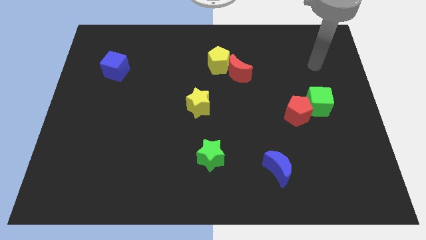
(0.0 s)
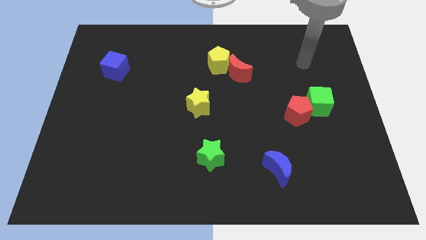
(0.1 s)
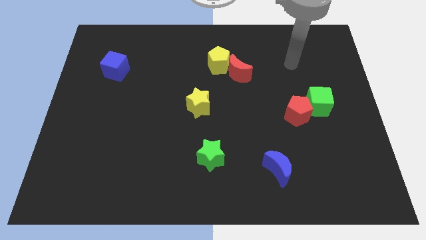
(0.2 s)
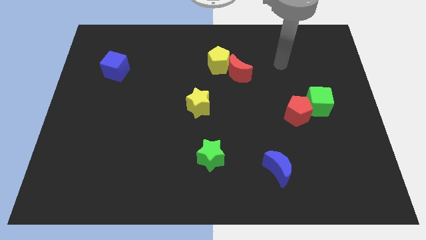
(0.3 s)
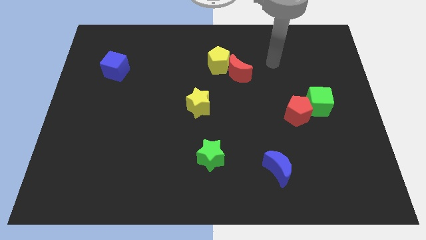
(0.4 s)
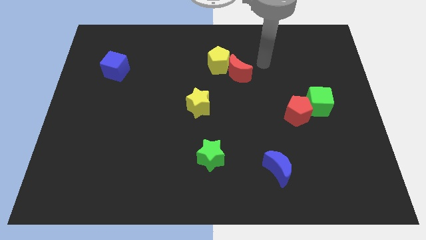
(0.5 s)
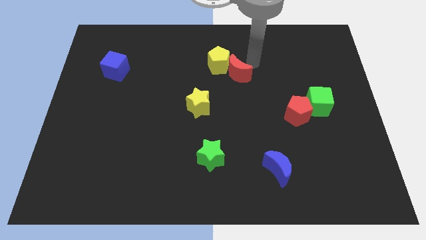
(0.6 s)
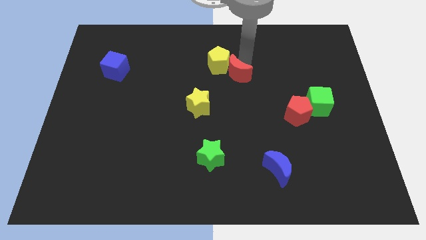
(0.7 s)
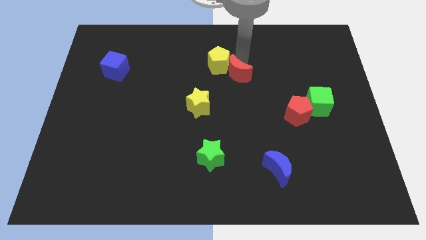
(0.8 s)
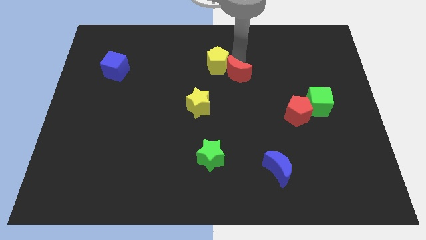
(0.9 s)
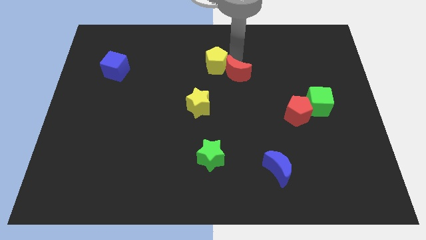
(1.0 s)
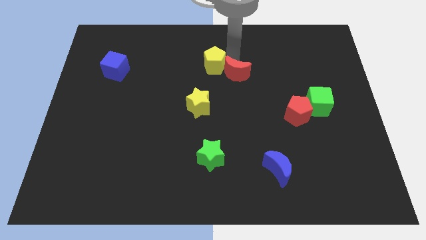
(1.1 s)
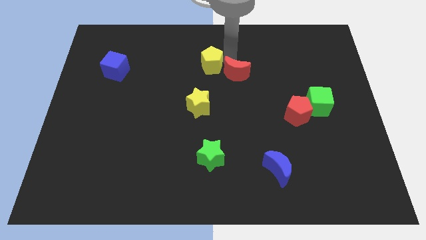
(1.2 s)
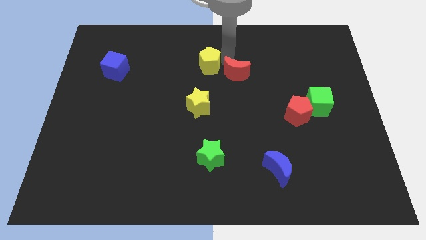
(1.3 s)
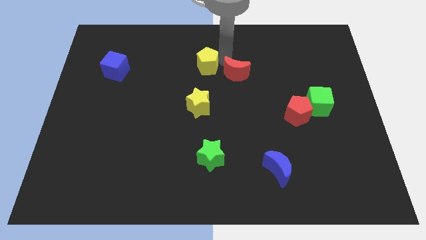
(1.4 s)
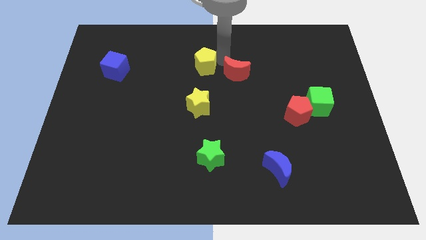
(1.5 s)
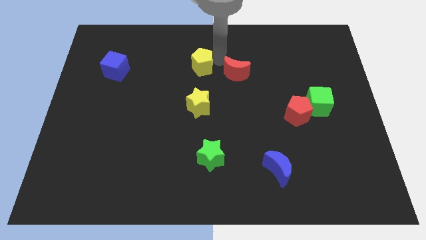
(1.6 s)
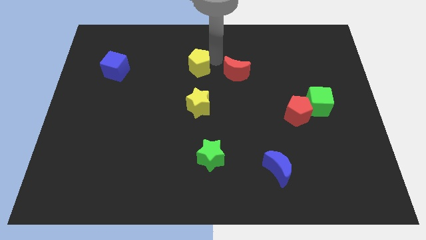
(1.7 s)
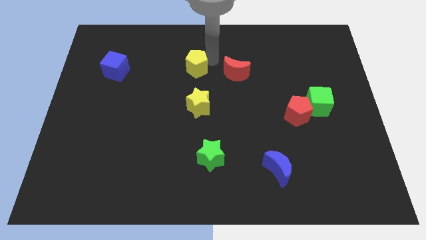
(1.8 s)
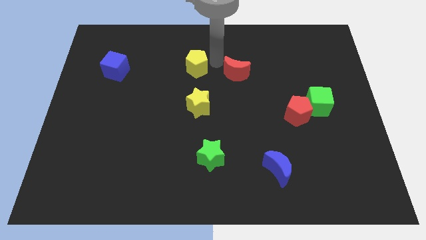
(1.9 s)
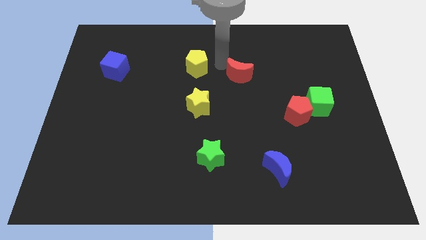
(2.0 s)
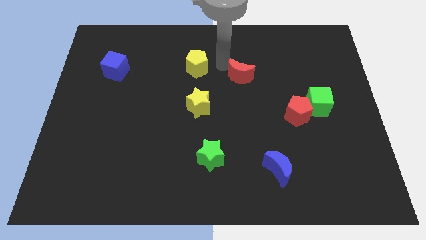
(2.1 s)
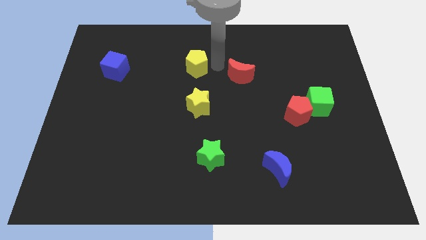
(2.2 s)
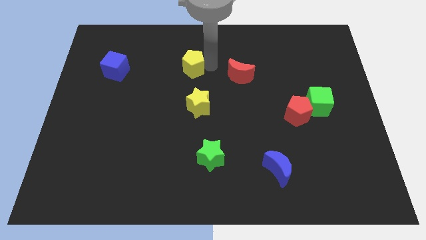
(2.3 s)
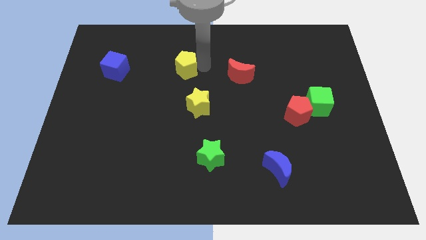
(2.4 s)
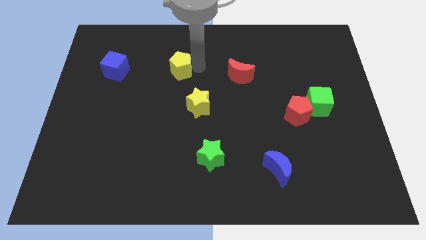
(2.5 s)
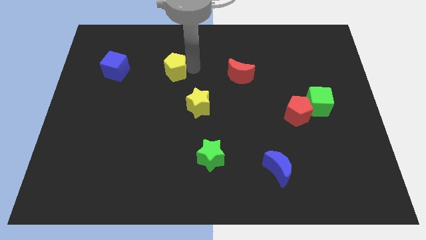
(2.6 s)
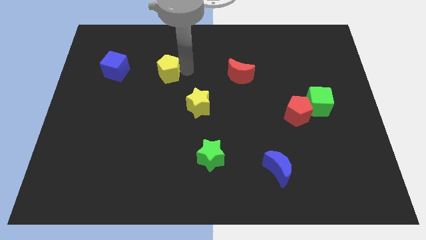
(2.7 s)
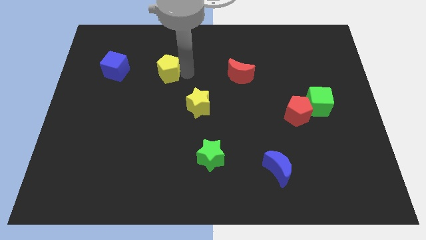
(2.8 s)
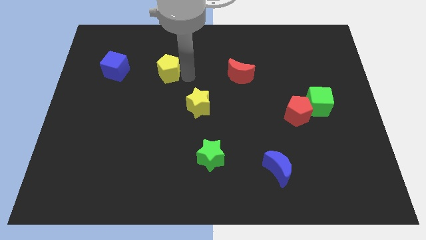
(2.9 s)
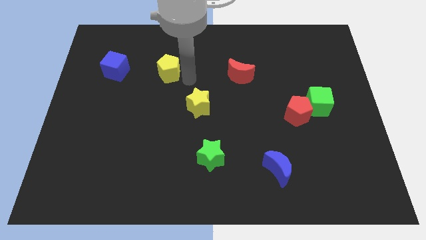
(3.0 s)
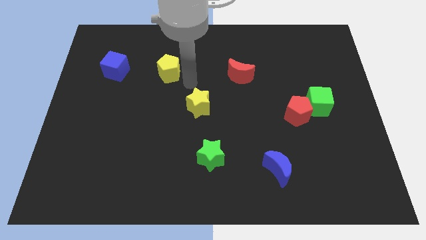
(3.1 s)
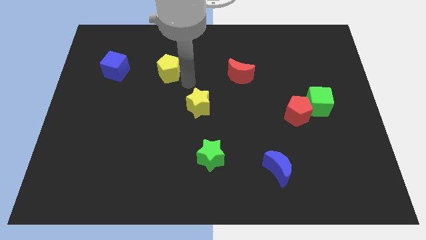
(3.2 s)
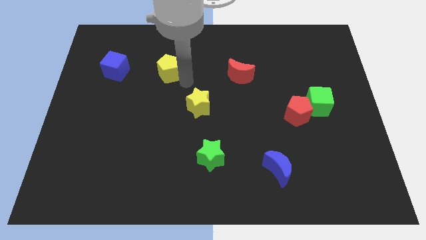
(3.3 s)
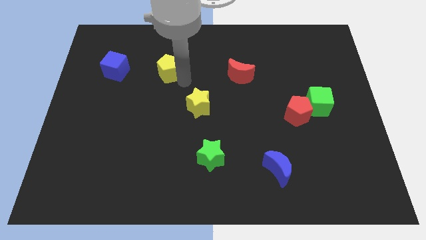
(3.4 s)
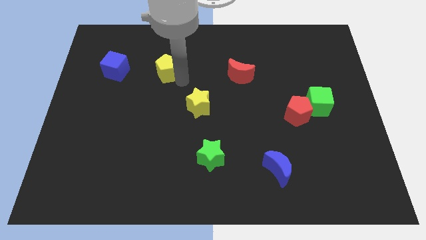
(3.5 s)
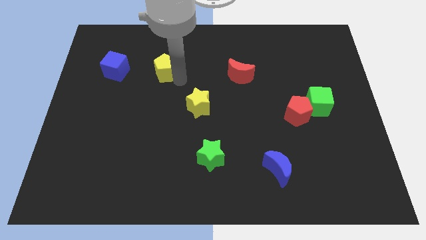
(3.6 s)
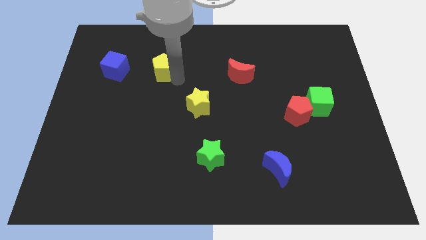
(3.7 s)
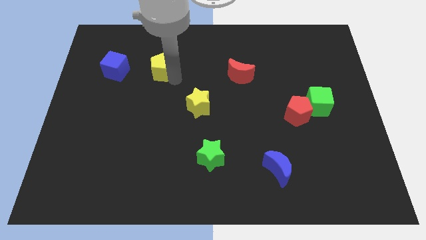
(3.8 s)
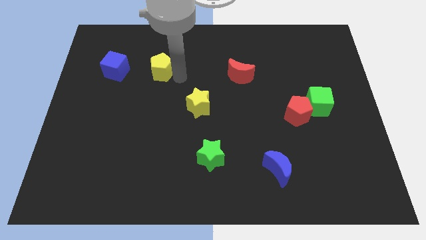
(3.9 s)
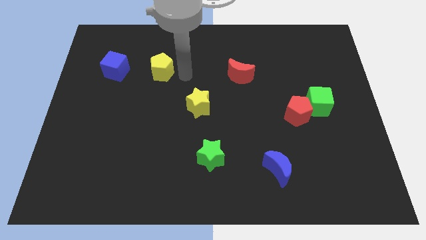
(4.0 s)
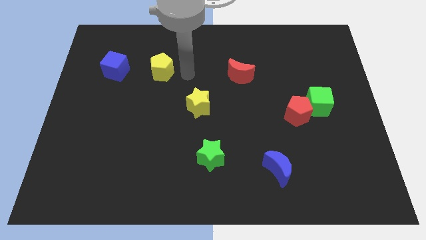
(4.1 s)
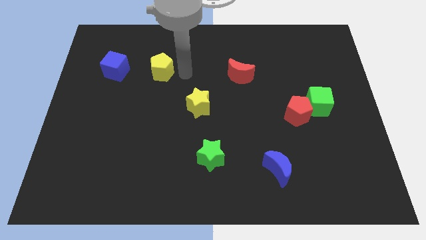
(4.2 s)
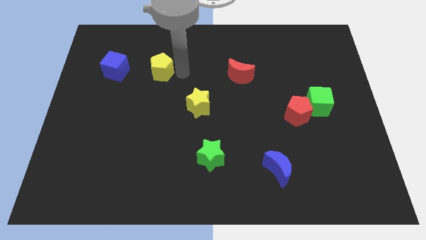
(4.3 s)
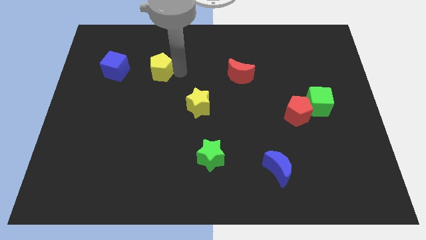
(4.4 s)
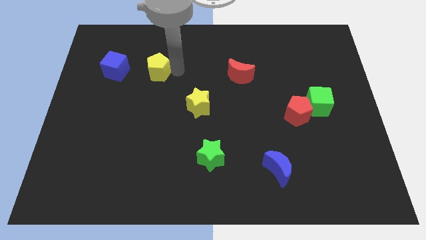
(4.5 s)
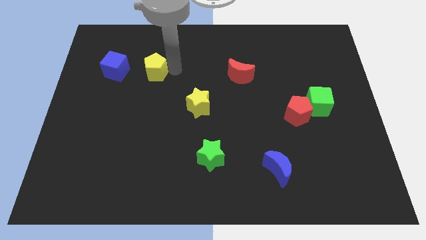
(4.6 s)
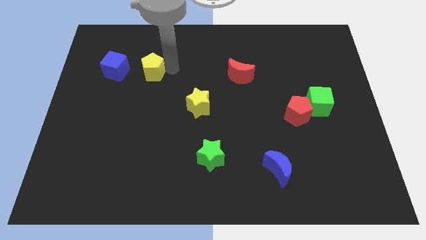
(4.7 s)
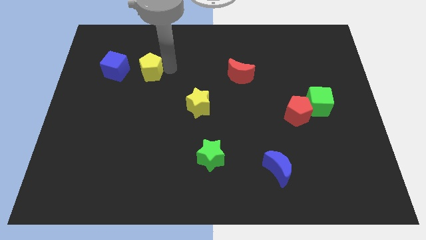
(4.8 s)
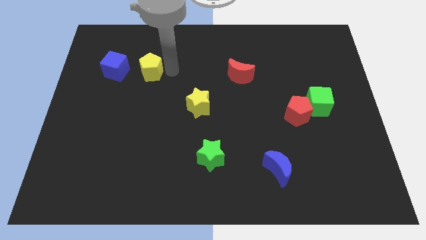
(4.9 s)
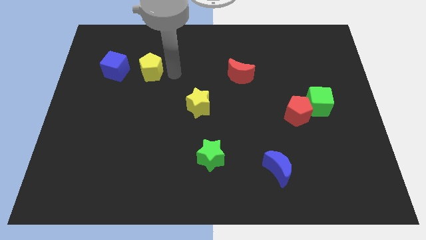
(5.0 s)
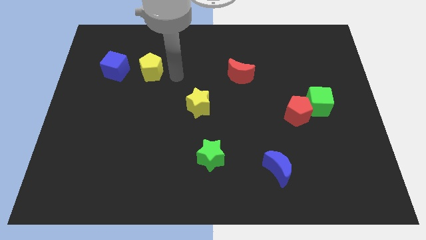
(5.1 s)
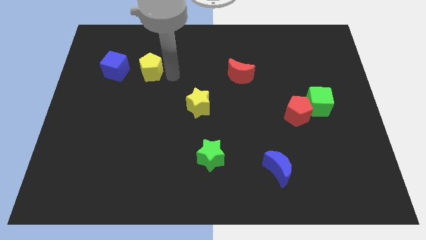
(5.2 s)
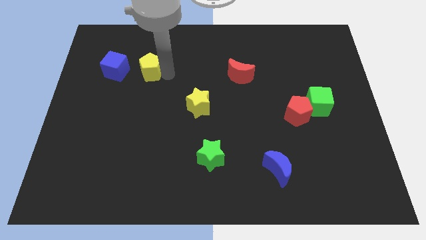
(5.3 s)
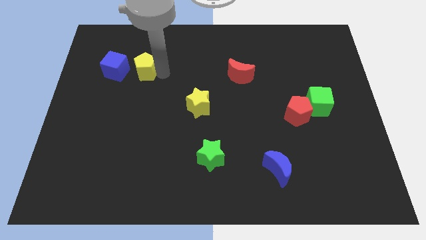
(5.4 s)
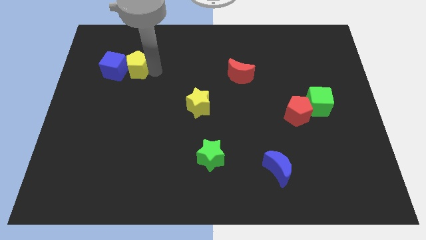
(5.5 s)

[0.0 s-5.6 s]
put the yellow pentagon next to the blue cube

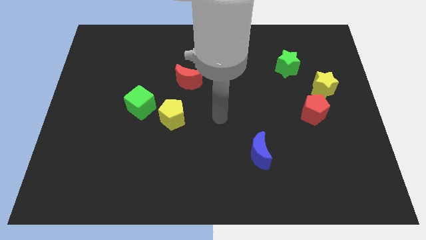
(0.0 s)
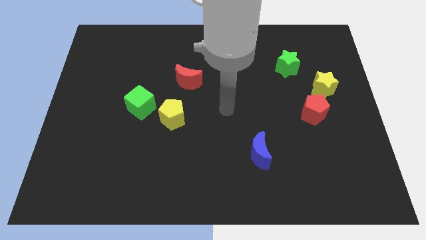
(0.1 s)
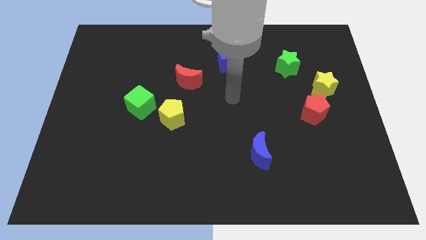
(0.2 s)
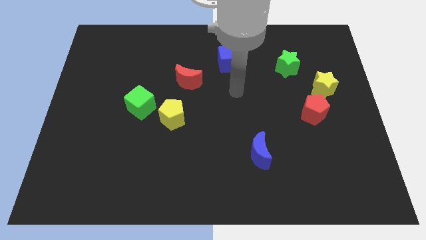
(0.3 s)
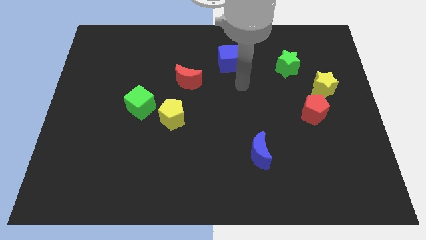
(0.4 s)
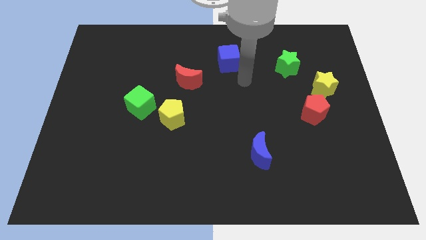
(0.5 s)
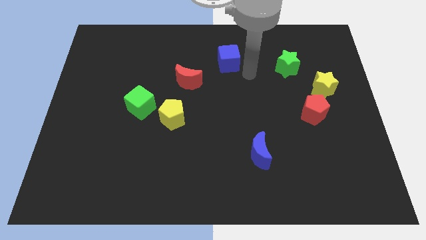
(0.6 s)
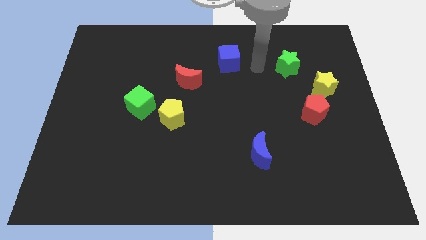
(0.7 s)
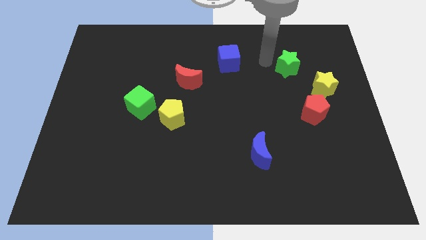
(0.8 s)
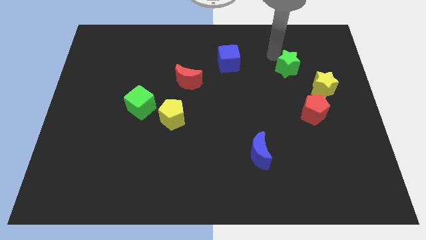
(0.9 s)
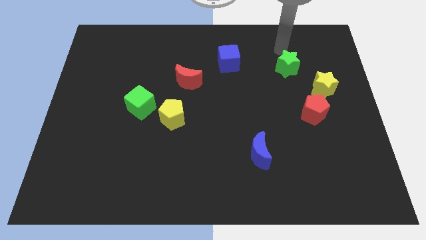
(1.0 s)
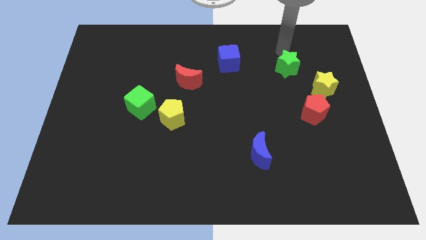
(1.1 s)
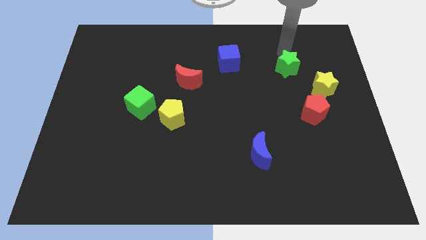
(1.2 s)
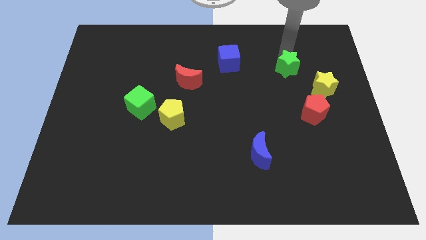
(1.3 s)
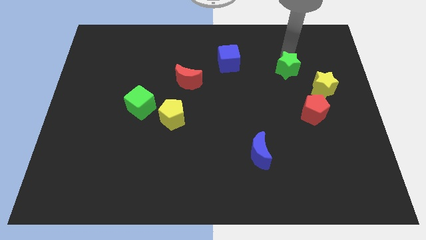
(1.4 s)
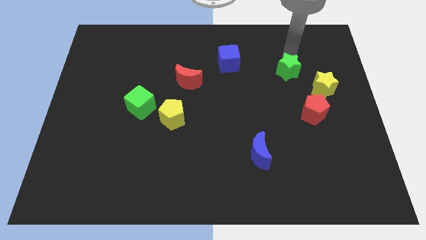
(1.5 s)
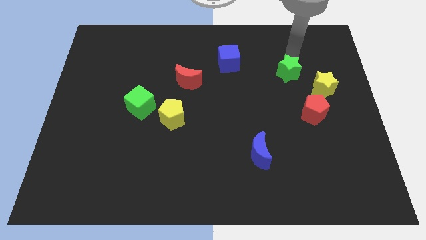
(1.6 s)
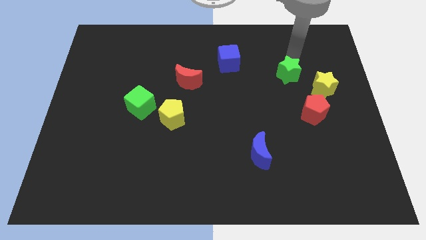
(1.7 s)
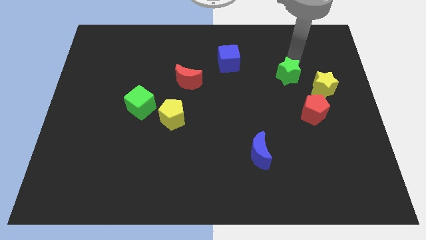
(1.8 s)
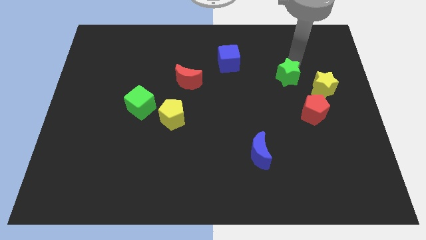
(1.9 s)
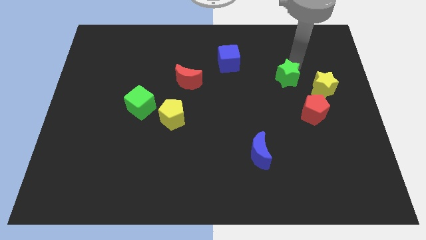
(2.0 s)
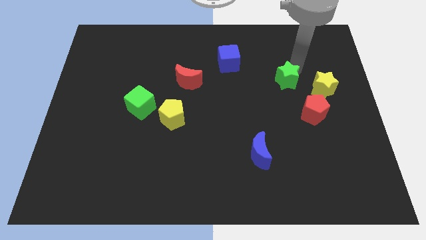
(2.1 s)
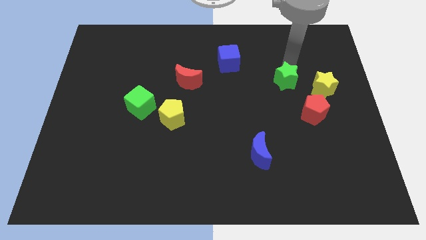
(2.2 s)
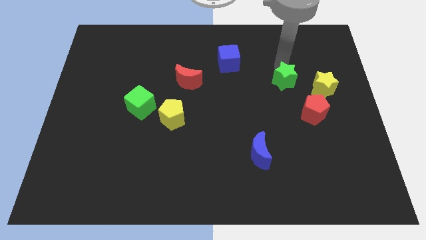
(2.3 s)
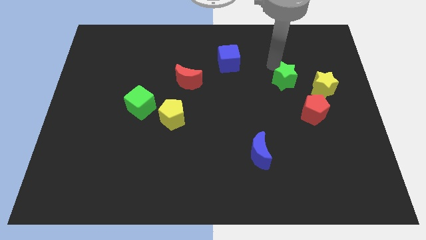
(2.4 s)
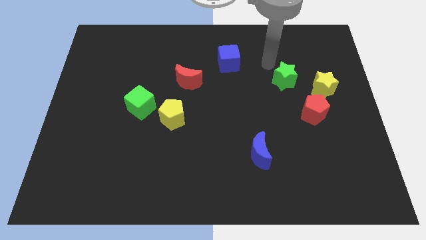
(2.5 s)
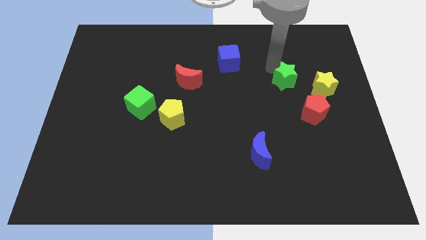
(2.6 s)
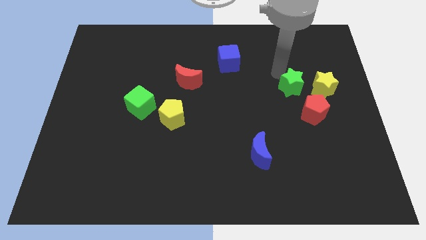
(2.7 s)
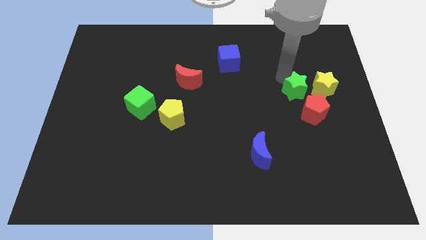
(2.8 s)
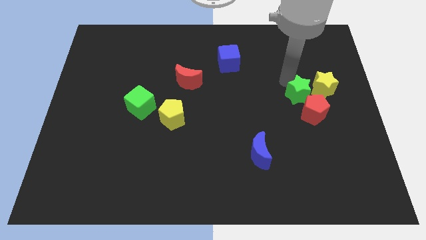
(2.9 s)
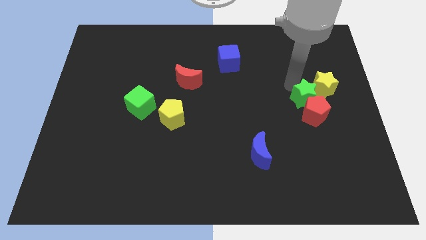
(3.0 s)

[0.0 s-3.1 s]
put the green star close to the red pentagon
